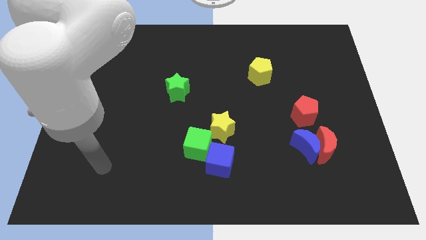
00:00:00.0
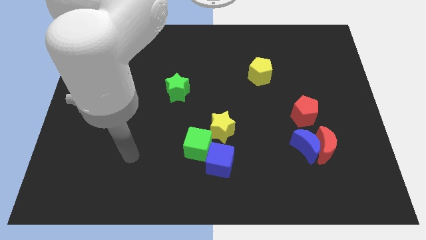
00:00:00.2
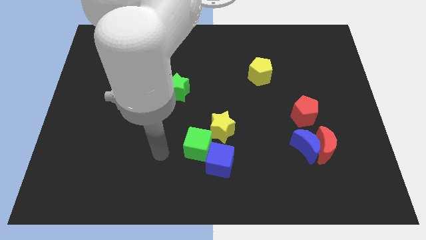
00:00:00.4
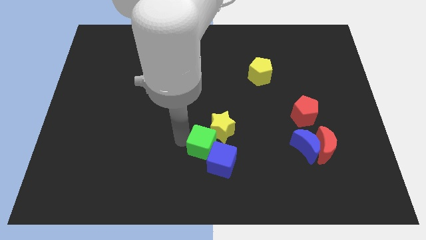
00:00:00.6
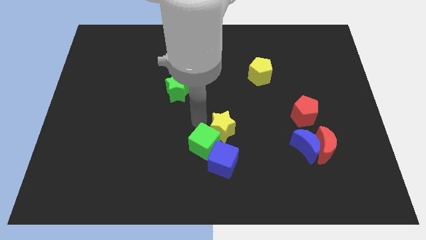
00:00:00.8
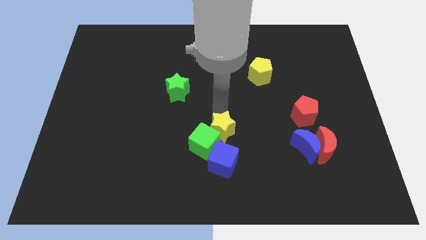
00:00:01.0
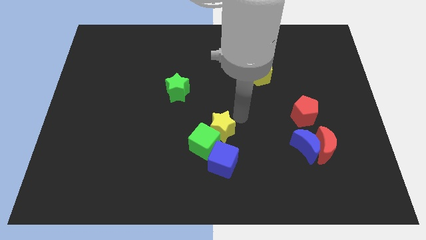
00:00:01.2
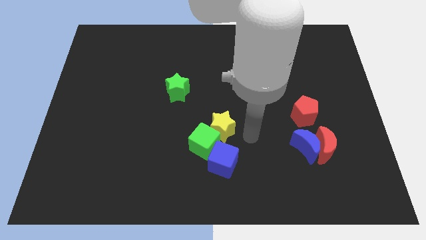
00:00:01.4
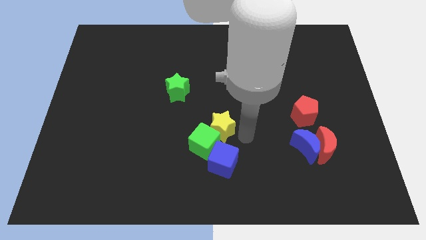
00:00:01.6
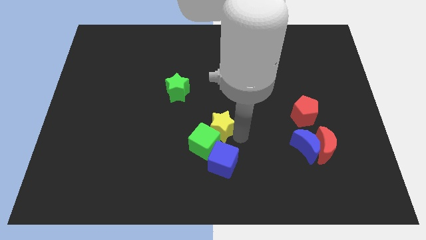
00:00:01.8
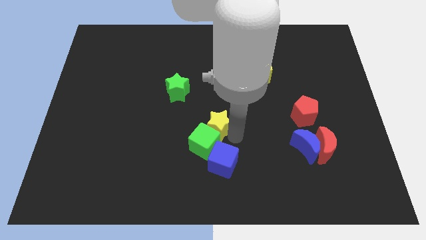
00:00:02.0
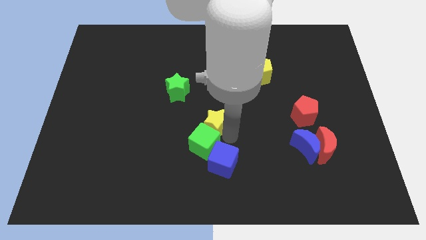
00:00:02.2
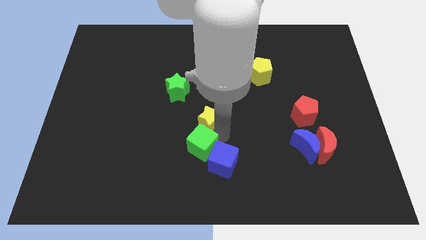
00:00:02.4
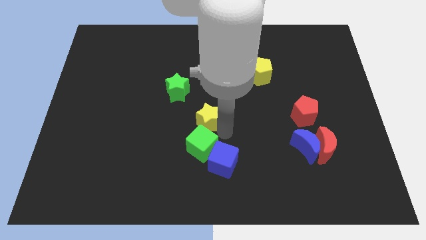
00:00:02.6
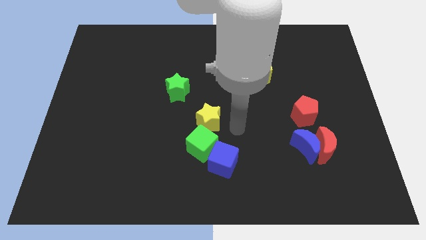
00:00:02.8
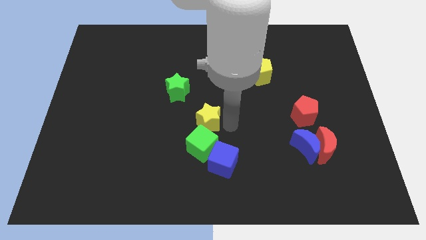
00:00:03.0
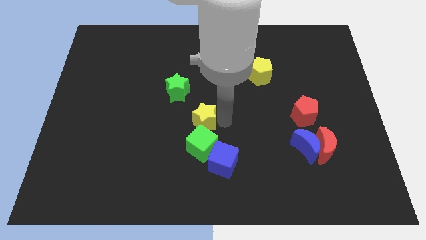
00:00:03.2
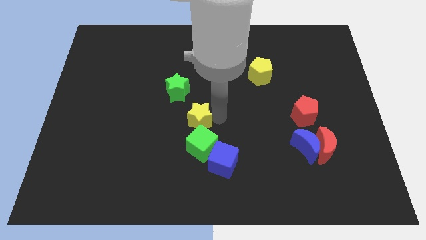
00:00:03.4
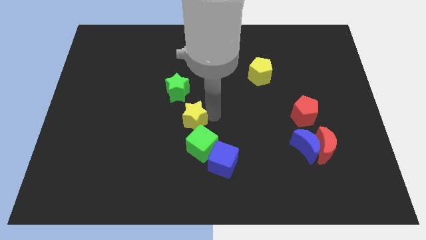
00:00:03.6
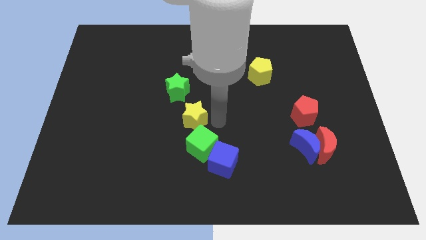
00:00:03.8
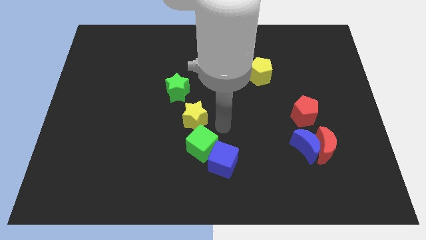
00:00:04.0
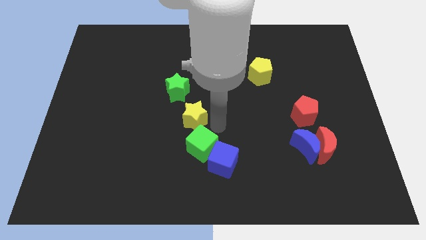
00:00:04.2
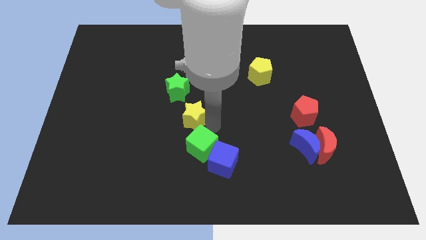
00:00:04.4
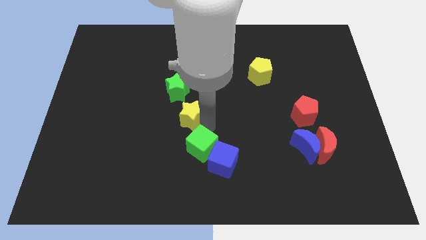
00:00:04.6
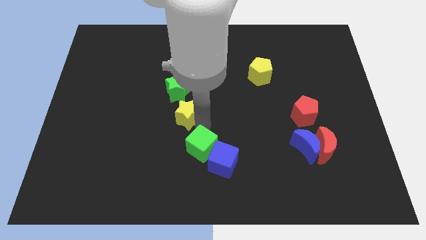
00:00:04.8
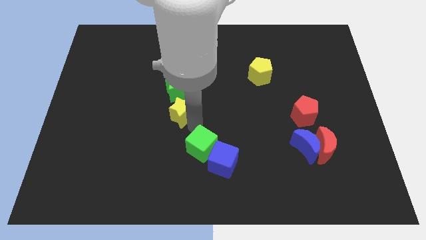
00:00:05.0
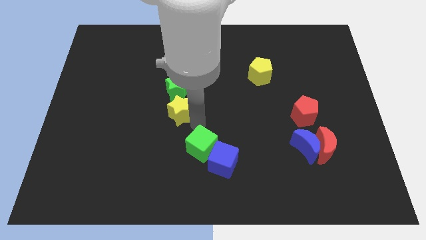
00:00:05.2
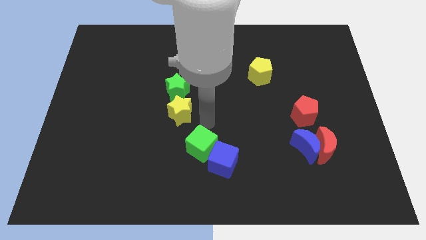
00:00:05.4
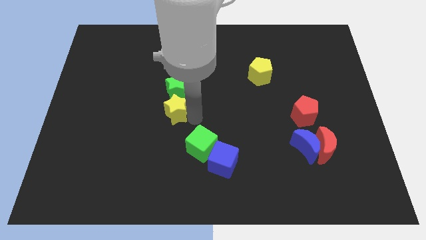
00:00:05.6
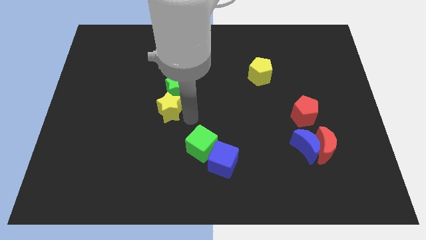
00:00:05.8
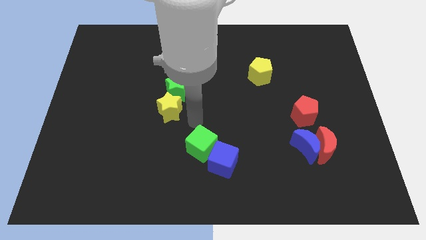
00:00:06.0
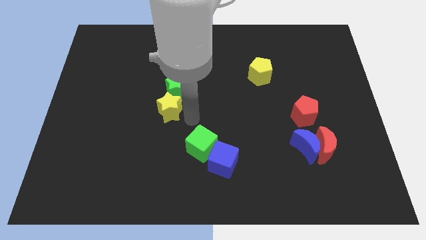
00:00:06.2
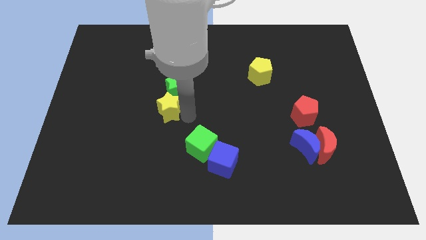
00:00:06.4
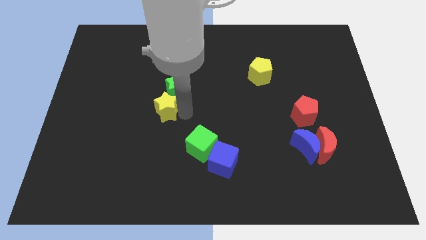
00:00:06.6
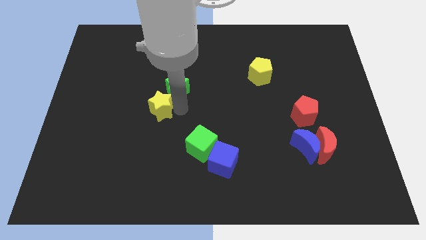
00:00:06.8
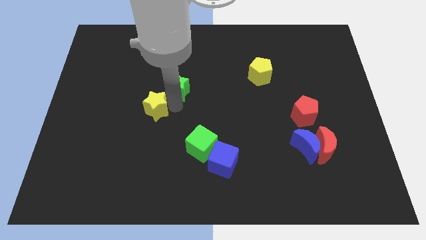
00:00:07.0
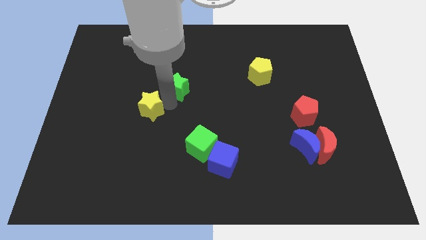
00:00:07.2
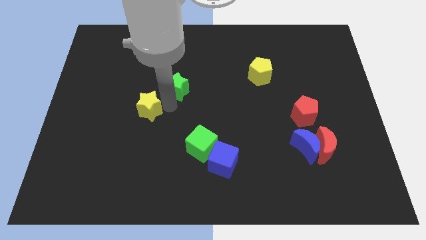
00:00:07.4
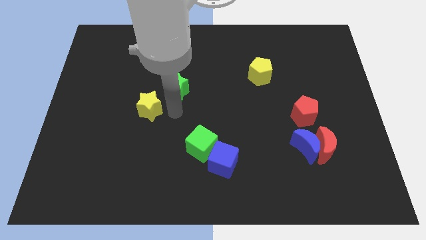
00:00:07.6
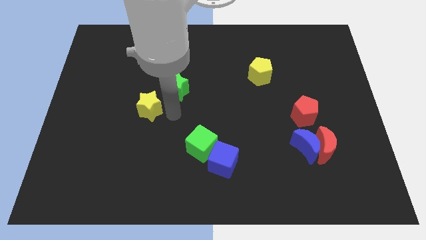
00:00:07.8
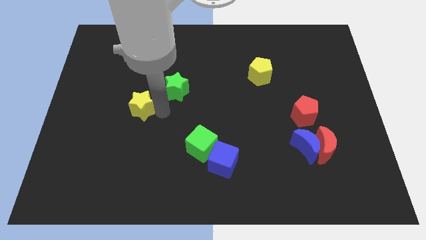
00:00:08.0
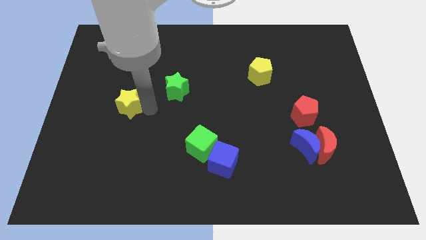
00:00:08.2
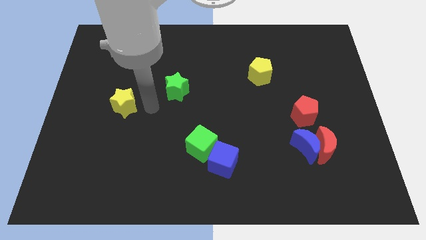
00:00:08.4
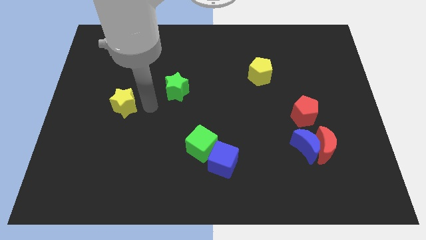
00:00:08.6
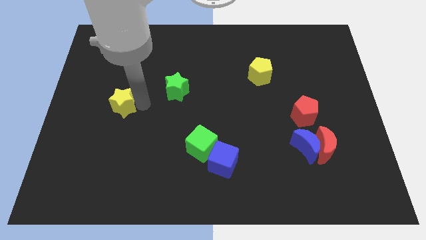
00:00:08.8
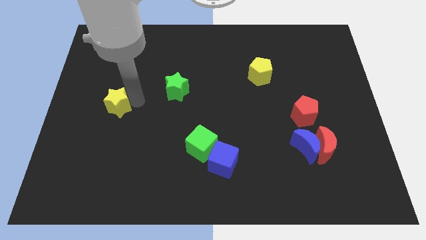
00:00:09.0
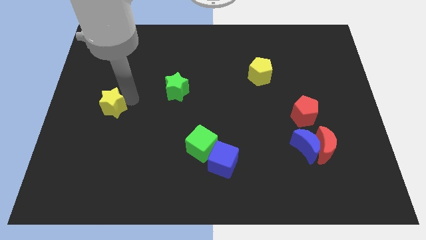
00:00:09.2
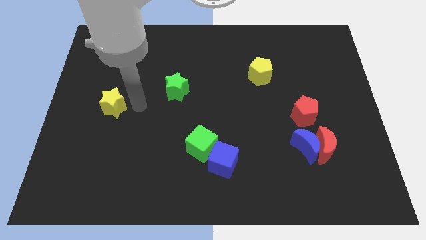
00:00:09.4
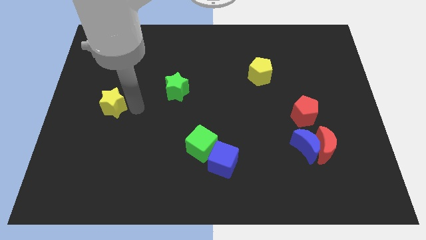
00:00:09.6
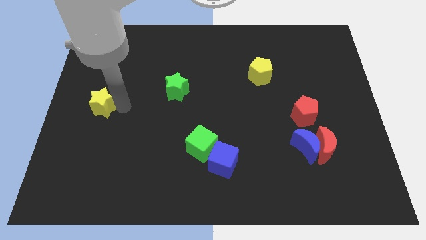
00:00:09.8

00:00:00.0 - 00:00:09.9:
push the yellow star to the left side of the board

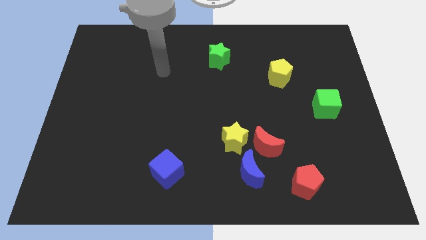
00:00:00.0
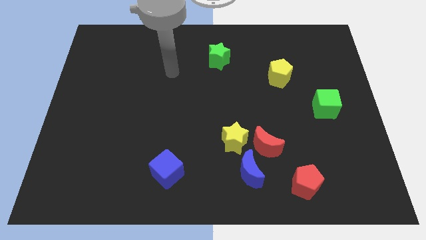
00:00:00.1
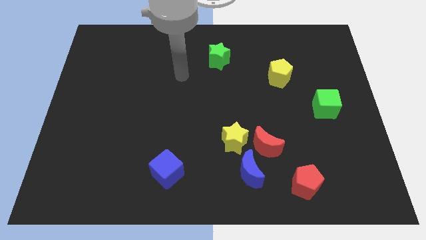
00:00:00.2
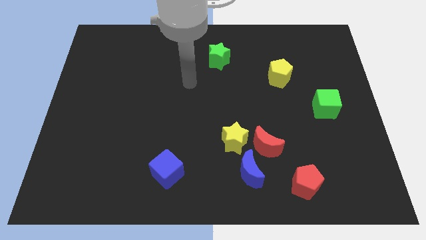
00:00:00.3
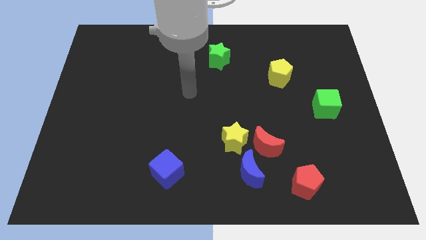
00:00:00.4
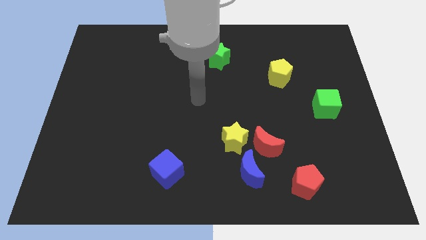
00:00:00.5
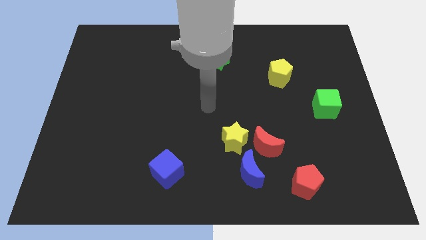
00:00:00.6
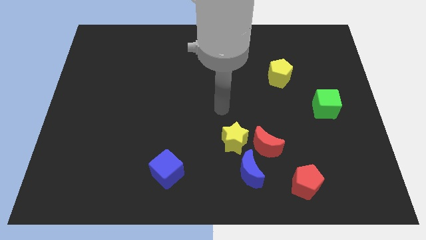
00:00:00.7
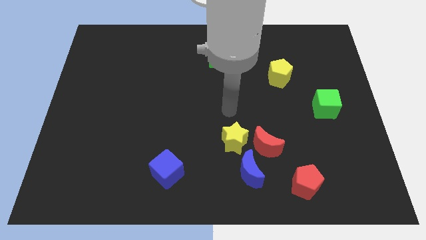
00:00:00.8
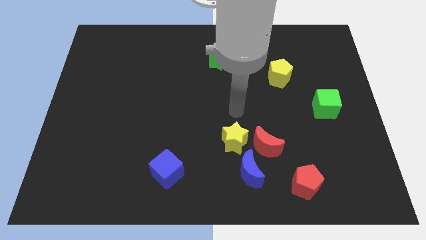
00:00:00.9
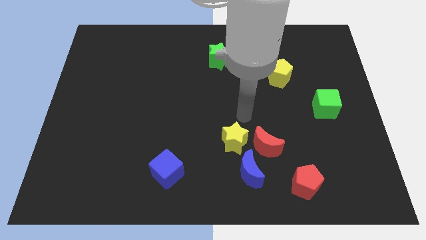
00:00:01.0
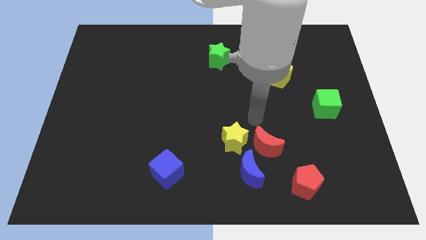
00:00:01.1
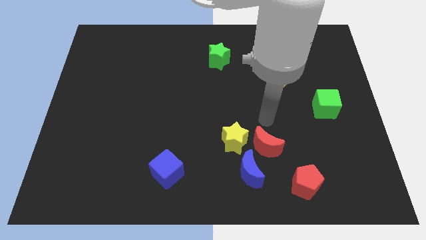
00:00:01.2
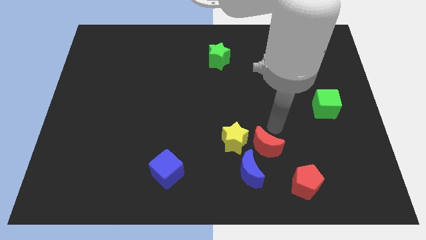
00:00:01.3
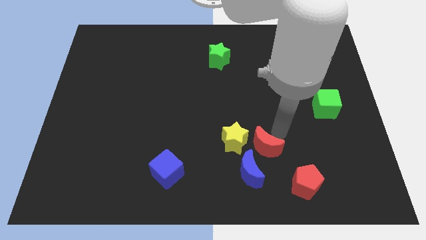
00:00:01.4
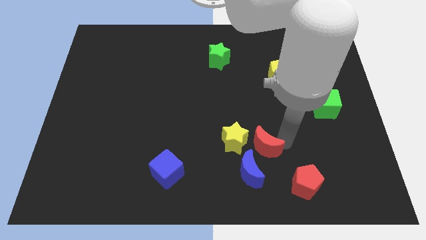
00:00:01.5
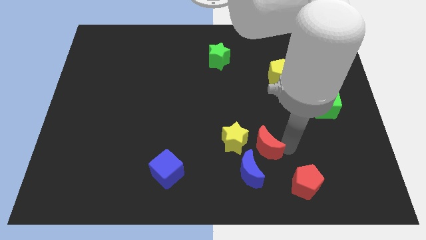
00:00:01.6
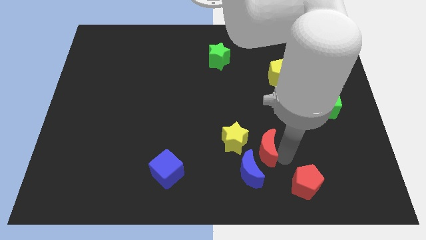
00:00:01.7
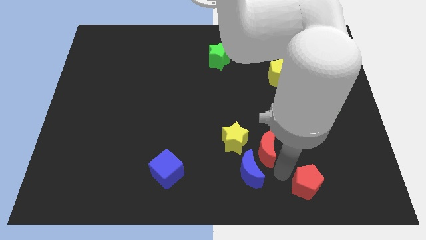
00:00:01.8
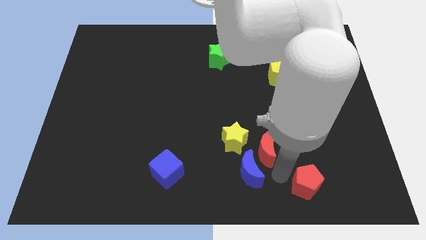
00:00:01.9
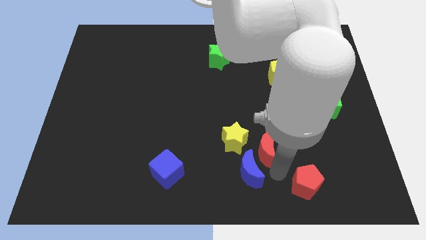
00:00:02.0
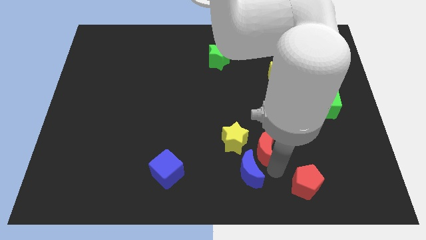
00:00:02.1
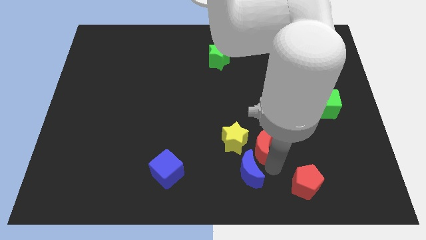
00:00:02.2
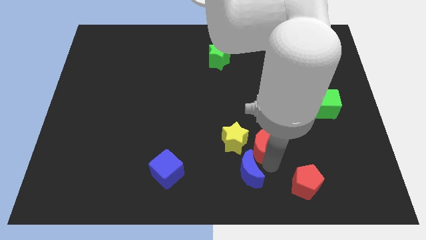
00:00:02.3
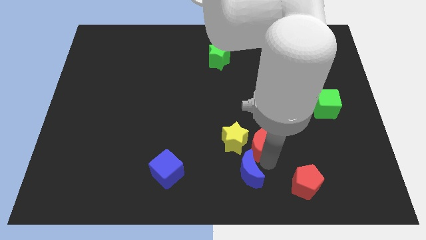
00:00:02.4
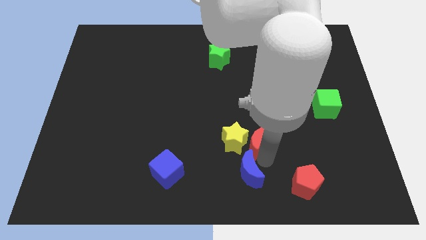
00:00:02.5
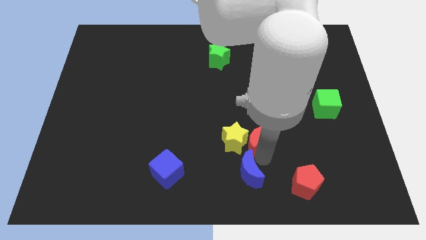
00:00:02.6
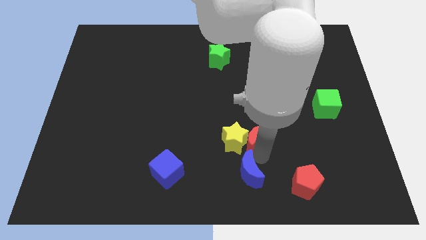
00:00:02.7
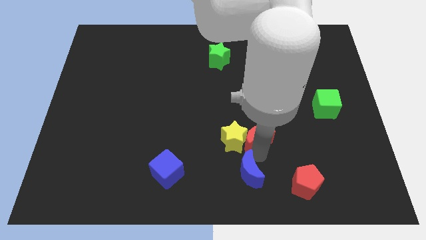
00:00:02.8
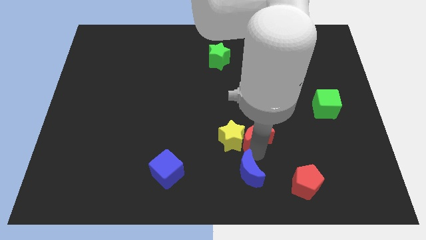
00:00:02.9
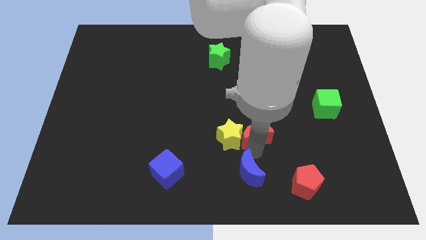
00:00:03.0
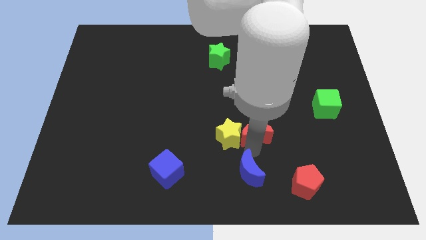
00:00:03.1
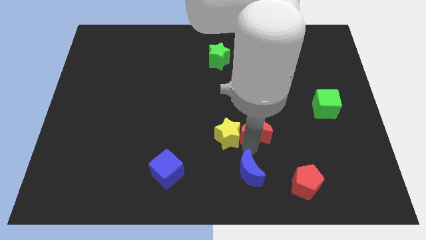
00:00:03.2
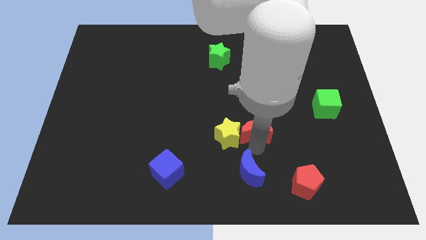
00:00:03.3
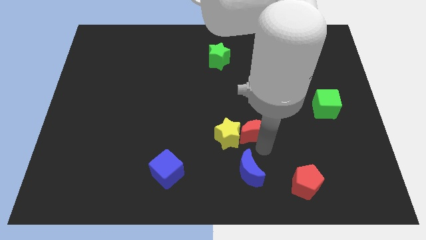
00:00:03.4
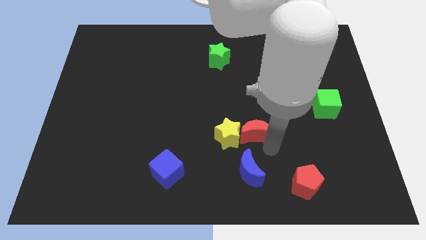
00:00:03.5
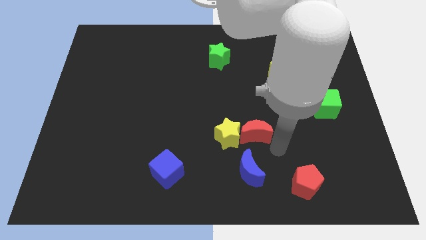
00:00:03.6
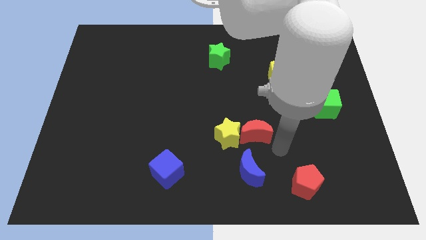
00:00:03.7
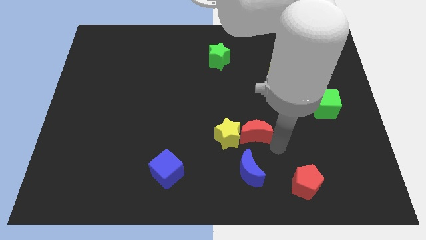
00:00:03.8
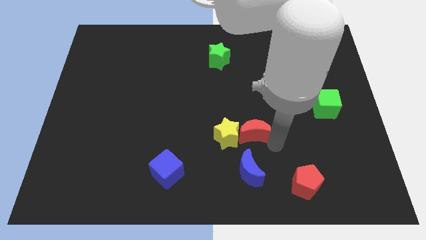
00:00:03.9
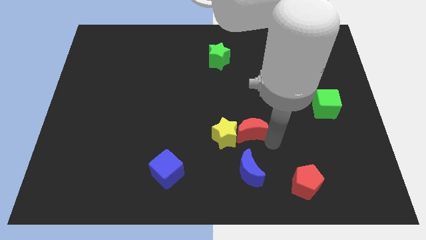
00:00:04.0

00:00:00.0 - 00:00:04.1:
slide the red moon to the center of the board
